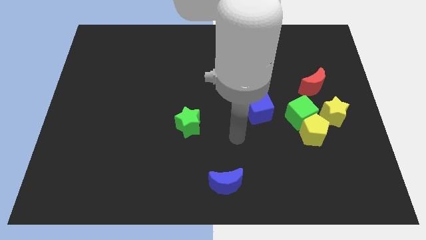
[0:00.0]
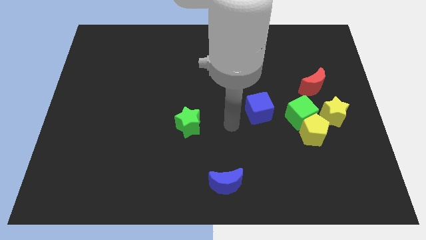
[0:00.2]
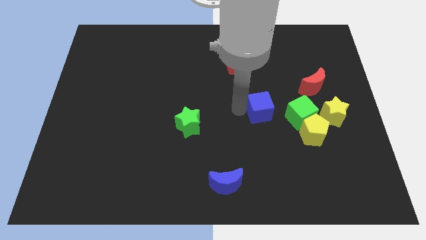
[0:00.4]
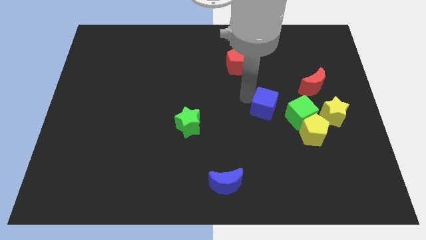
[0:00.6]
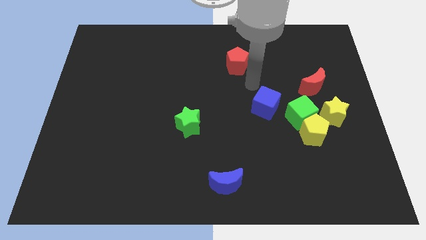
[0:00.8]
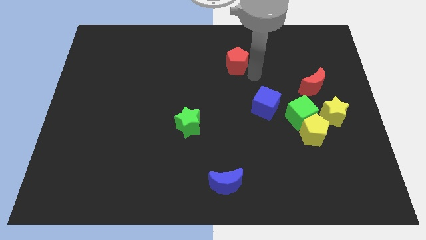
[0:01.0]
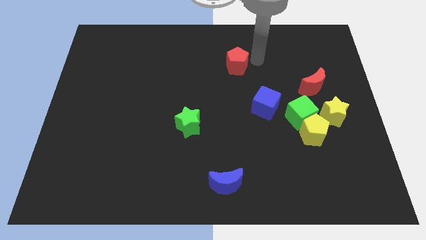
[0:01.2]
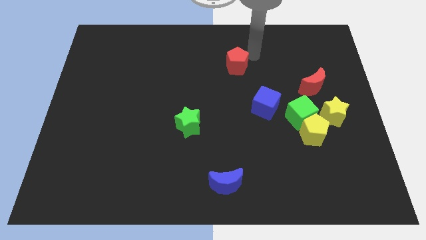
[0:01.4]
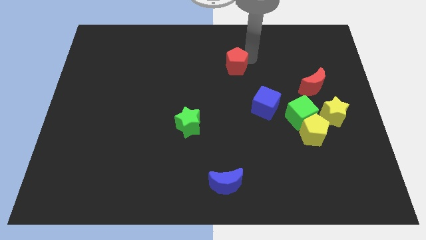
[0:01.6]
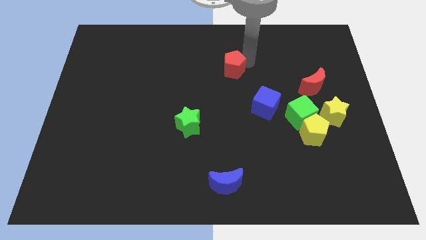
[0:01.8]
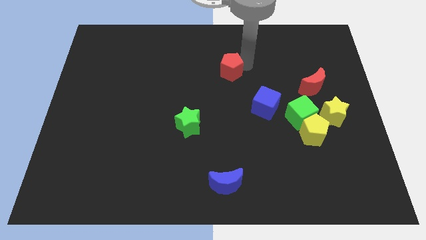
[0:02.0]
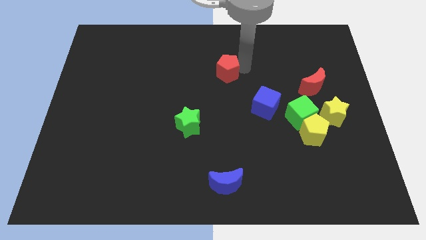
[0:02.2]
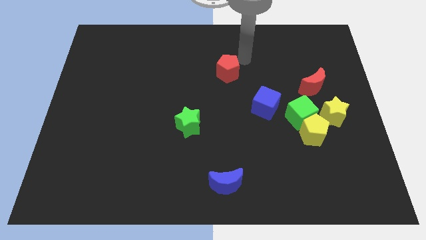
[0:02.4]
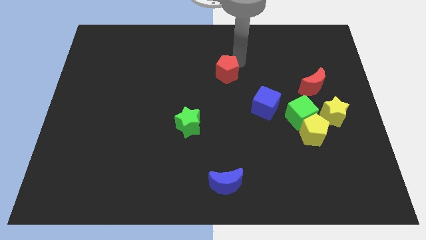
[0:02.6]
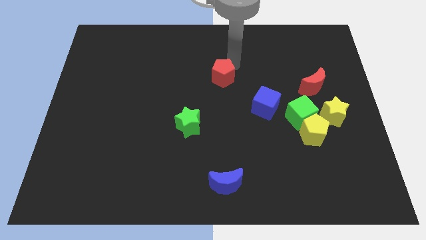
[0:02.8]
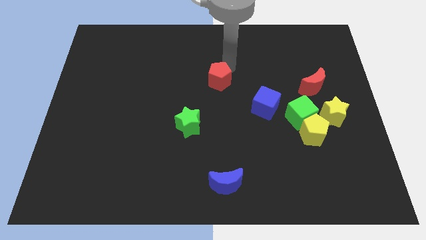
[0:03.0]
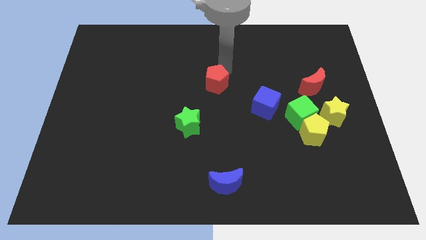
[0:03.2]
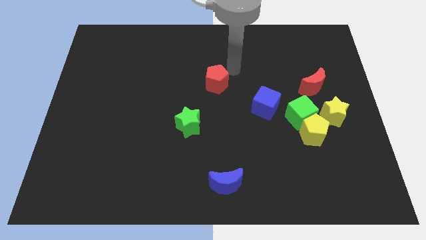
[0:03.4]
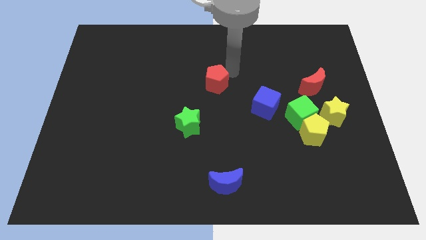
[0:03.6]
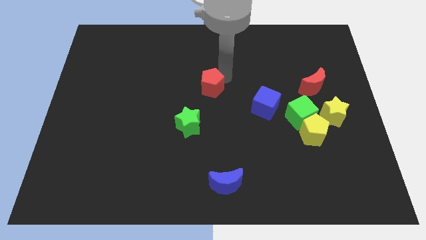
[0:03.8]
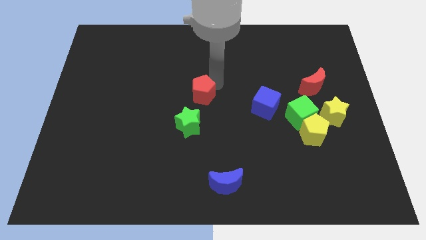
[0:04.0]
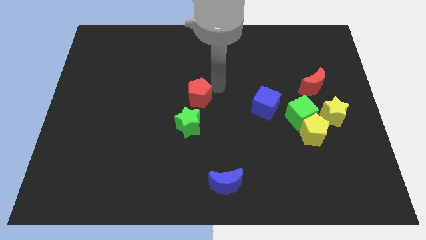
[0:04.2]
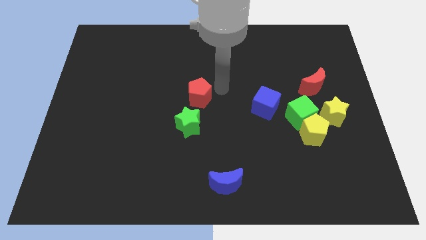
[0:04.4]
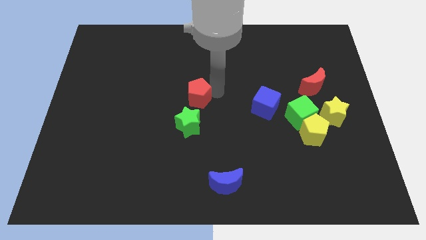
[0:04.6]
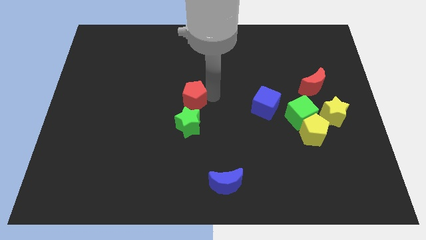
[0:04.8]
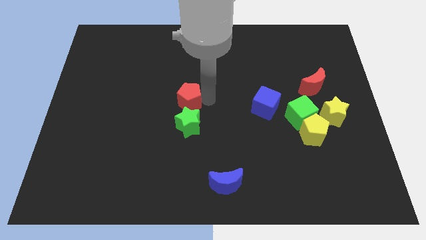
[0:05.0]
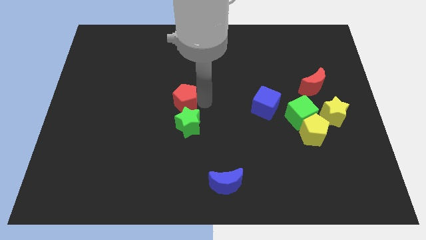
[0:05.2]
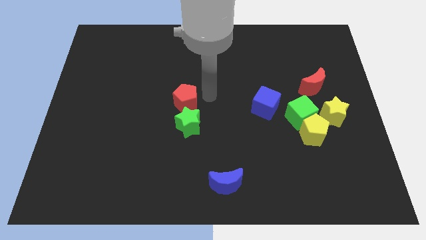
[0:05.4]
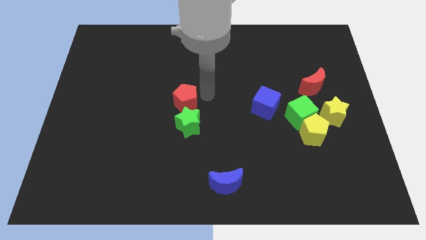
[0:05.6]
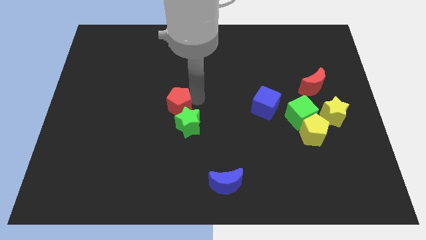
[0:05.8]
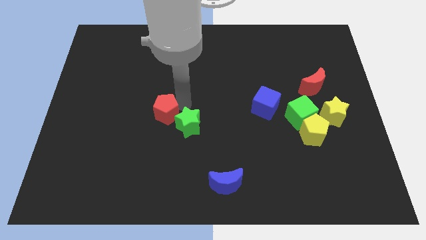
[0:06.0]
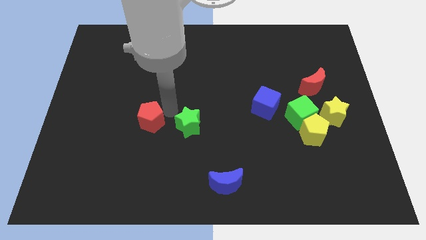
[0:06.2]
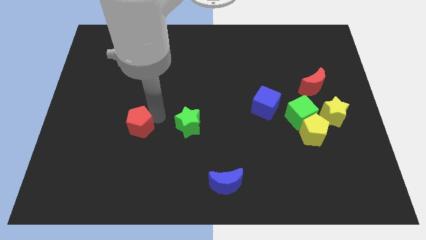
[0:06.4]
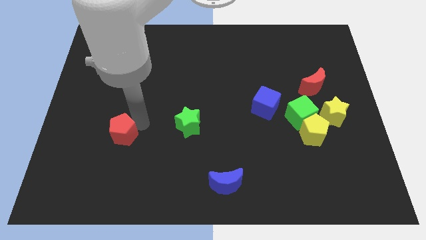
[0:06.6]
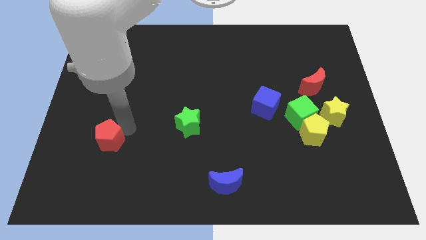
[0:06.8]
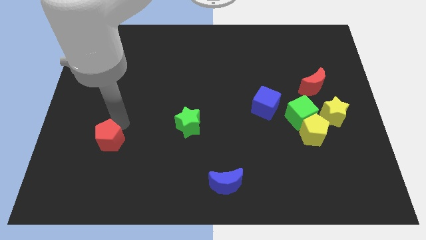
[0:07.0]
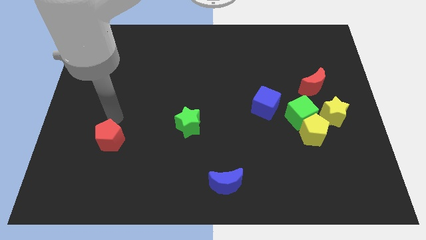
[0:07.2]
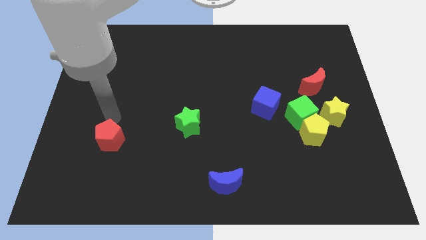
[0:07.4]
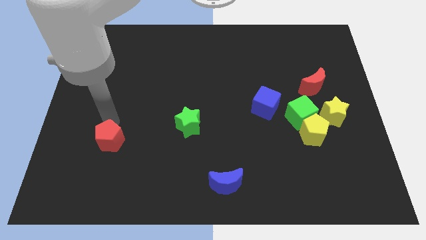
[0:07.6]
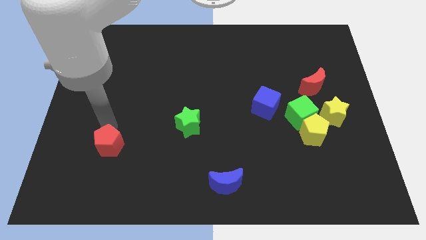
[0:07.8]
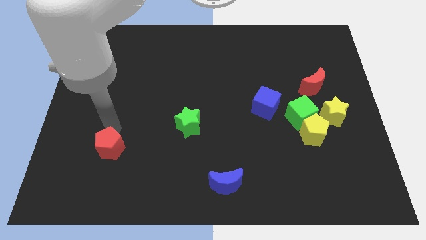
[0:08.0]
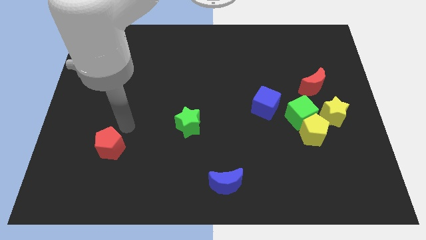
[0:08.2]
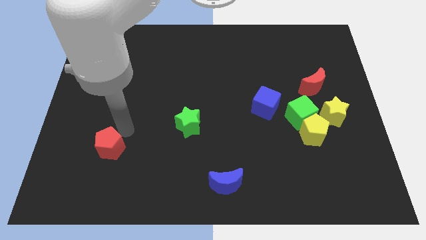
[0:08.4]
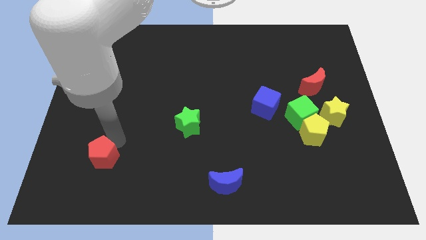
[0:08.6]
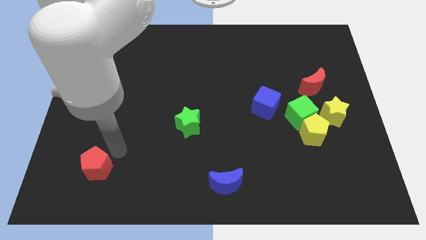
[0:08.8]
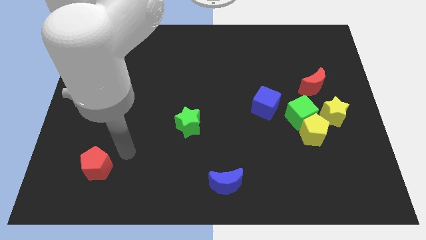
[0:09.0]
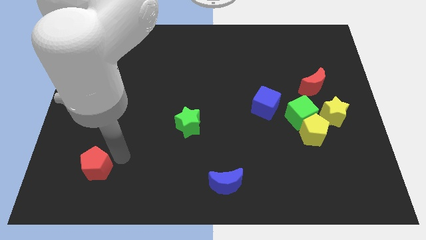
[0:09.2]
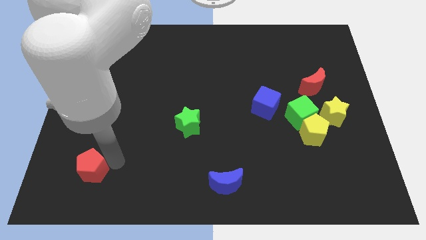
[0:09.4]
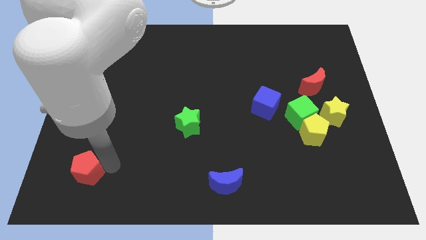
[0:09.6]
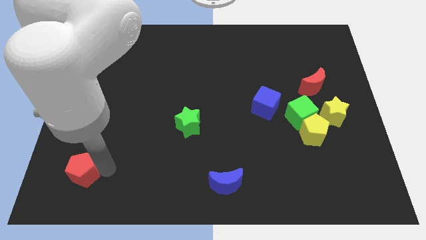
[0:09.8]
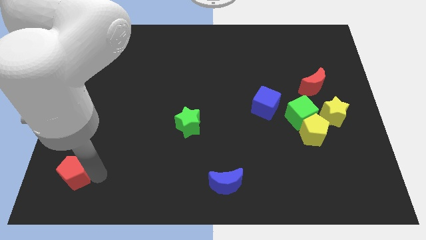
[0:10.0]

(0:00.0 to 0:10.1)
put the red pentagon to the bottom left

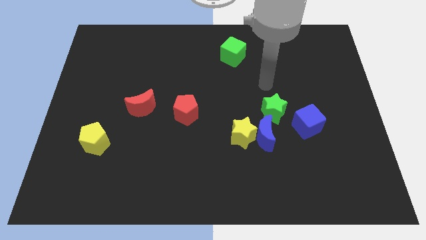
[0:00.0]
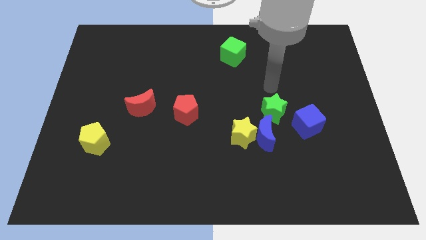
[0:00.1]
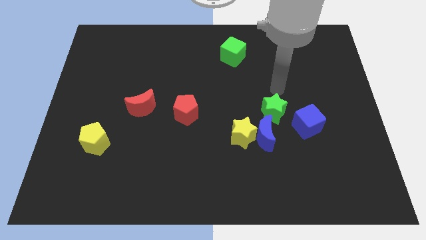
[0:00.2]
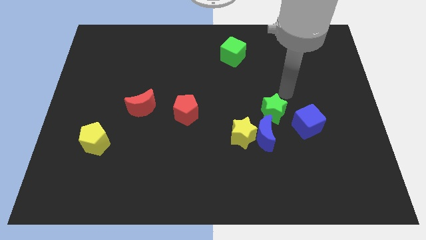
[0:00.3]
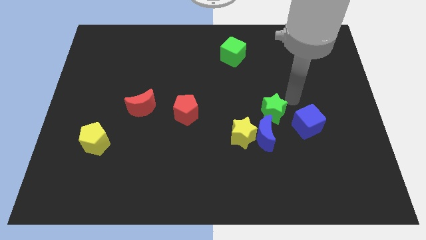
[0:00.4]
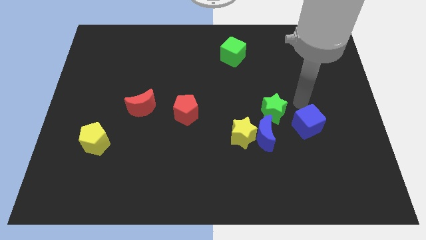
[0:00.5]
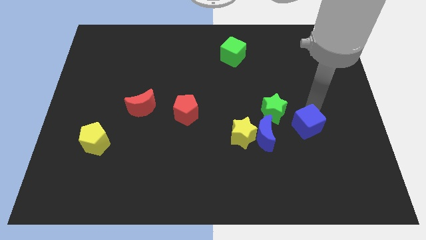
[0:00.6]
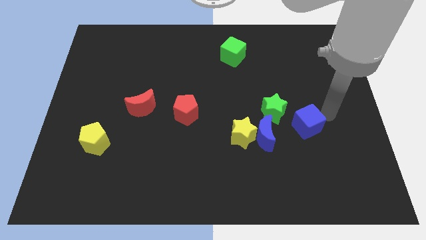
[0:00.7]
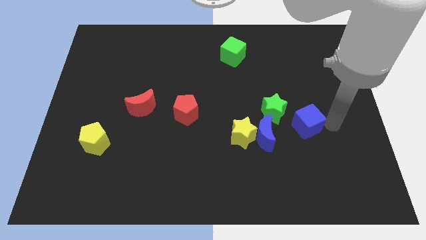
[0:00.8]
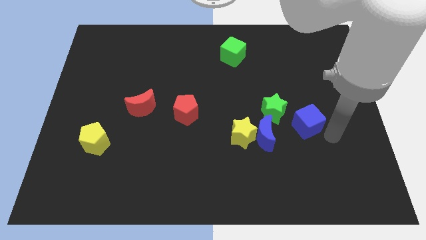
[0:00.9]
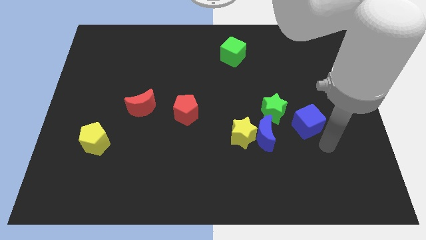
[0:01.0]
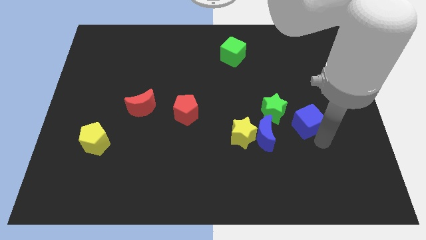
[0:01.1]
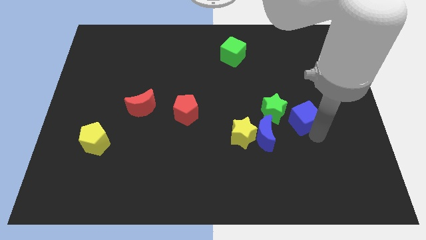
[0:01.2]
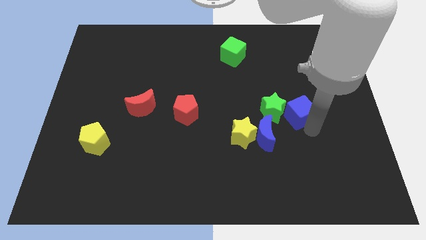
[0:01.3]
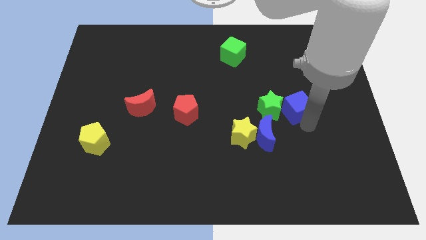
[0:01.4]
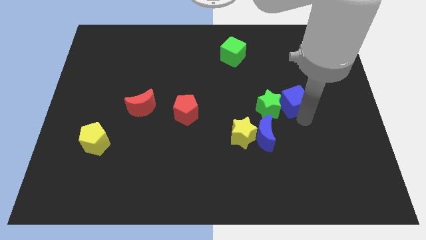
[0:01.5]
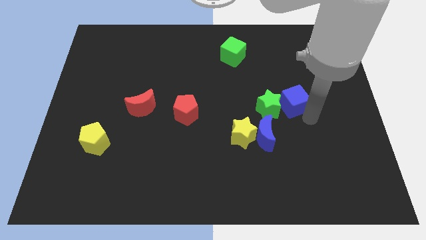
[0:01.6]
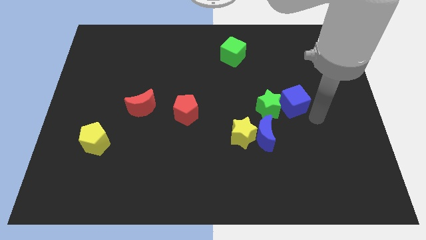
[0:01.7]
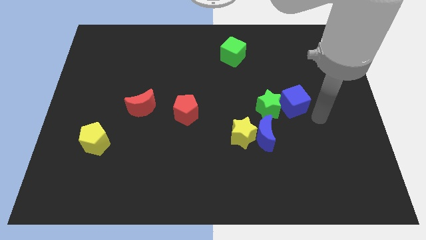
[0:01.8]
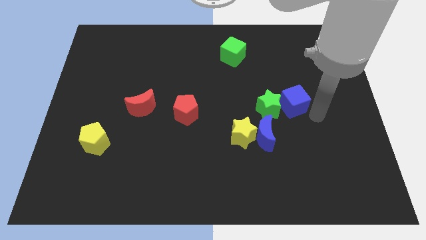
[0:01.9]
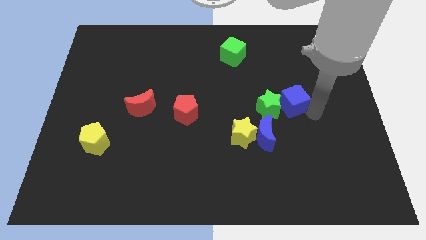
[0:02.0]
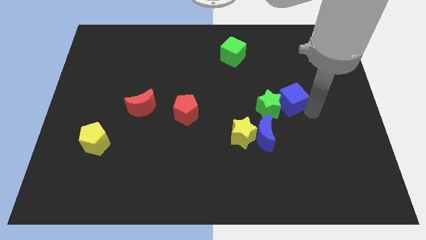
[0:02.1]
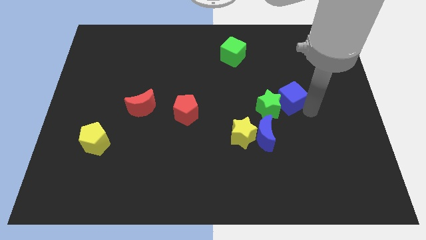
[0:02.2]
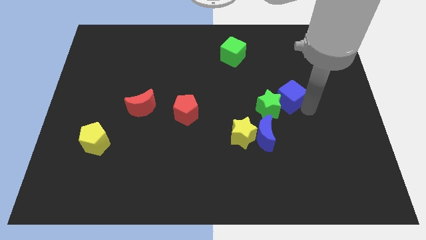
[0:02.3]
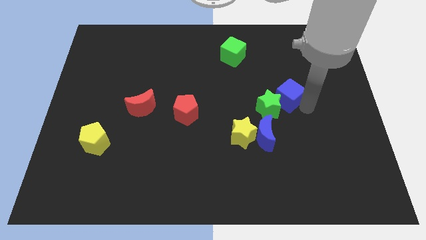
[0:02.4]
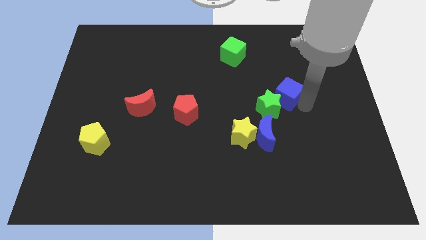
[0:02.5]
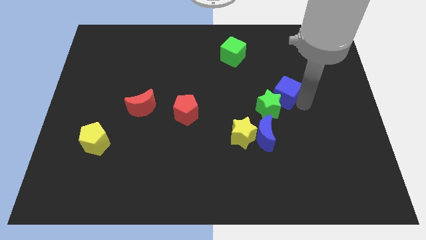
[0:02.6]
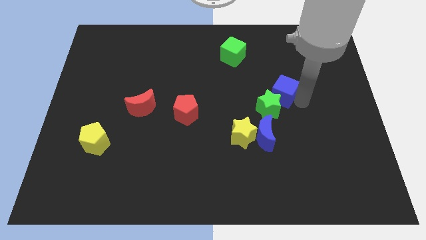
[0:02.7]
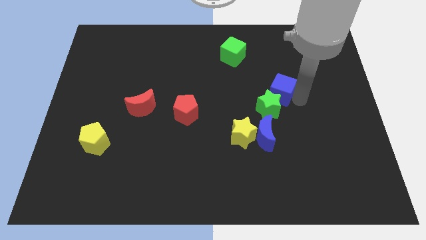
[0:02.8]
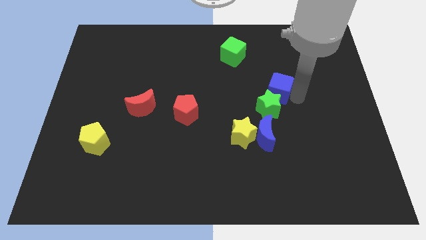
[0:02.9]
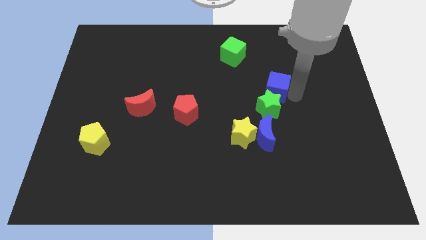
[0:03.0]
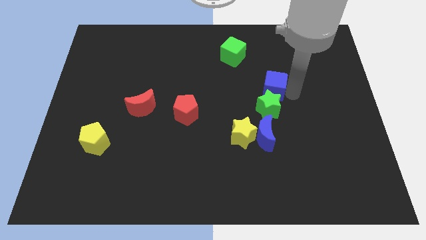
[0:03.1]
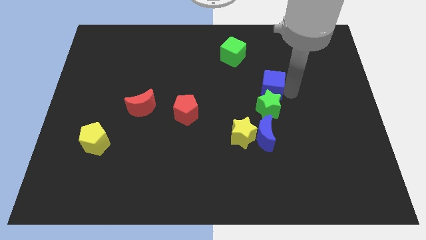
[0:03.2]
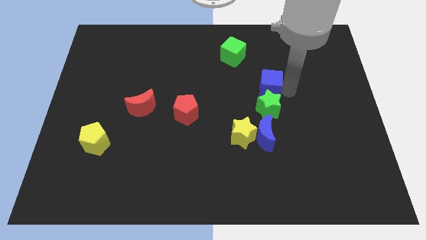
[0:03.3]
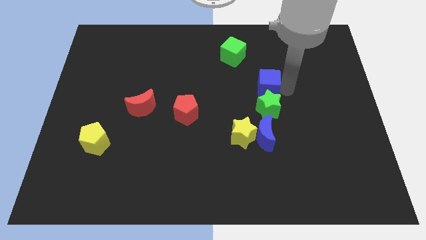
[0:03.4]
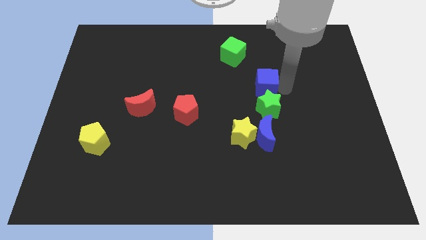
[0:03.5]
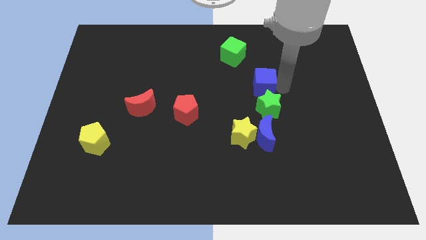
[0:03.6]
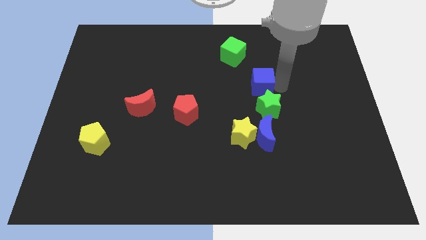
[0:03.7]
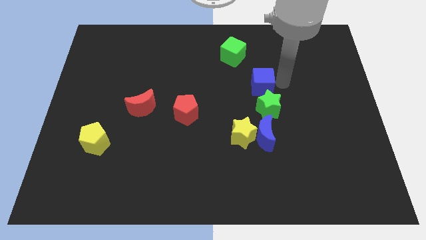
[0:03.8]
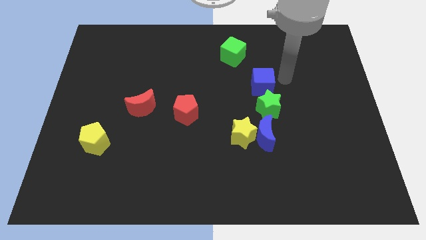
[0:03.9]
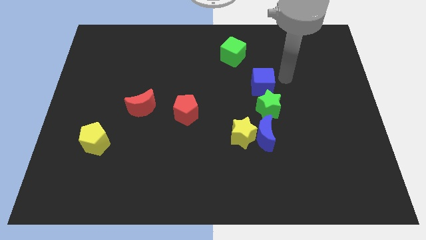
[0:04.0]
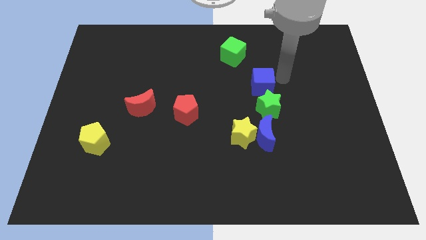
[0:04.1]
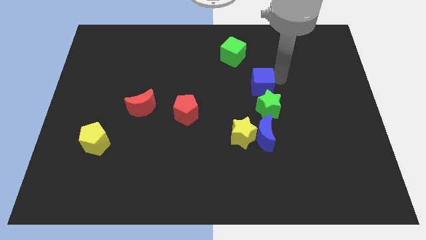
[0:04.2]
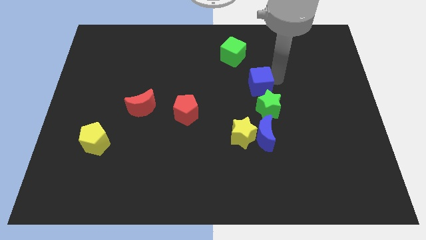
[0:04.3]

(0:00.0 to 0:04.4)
slide the blue cube to the middle
